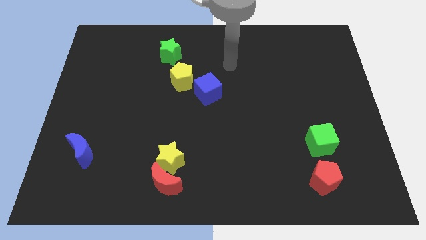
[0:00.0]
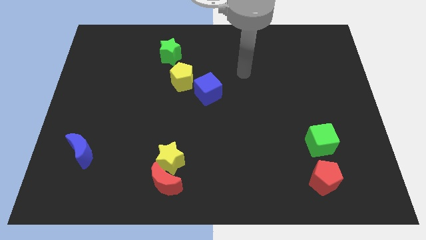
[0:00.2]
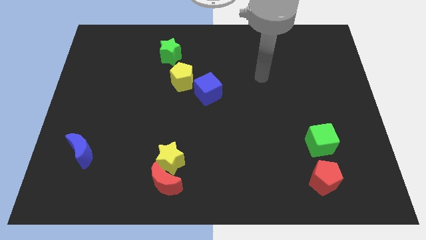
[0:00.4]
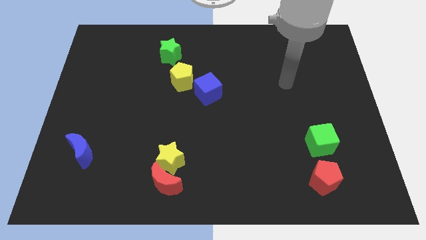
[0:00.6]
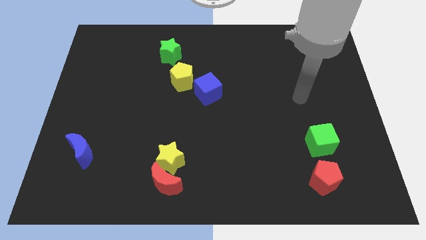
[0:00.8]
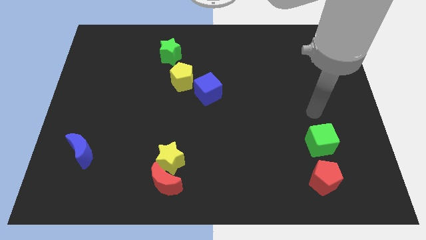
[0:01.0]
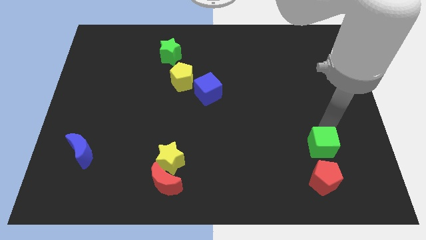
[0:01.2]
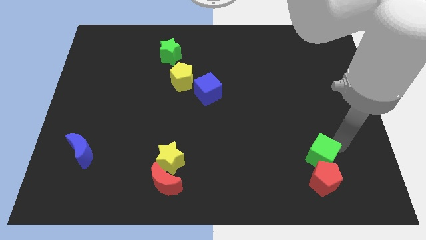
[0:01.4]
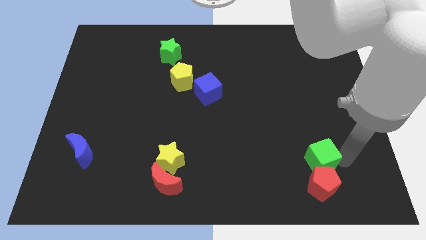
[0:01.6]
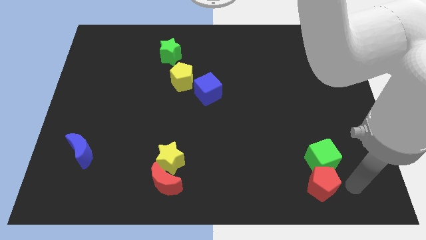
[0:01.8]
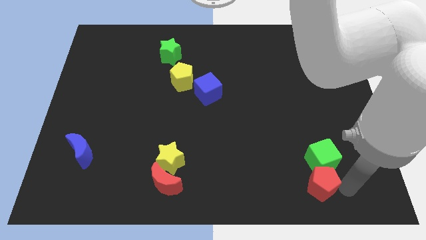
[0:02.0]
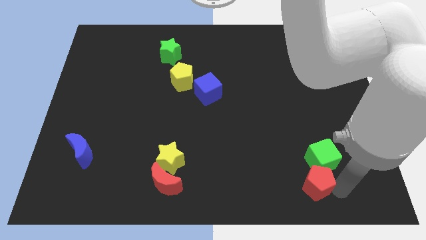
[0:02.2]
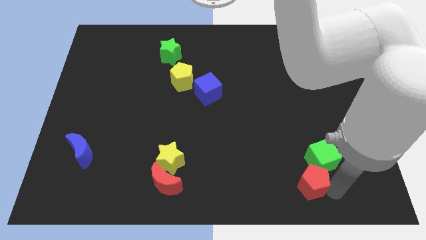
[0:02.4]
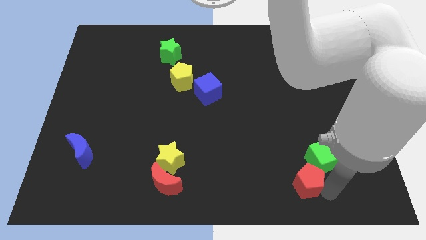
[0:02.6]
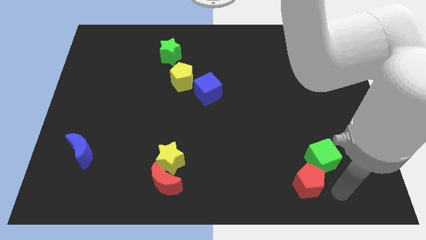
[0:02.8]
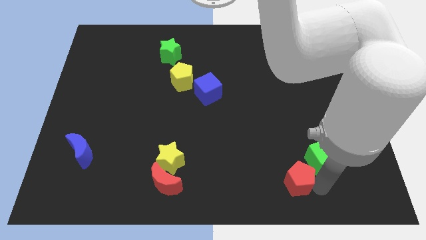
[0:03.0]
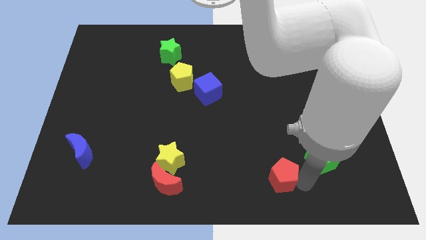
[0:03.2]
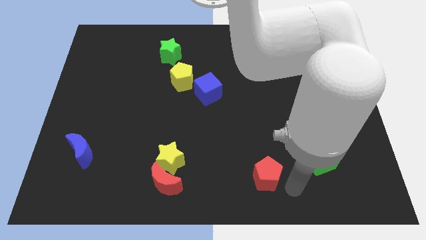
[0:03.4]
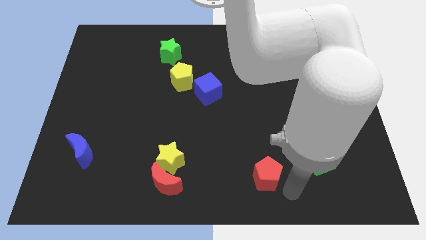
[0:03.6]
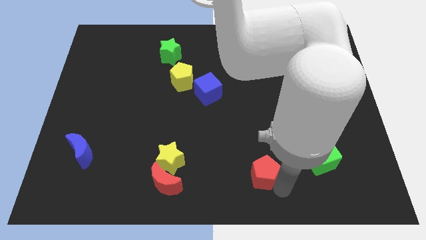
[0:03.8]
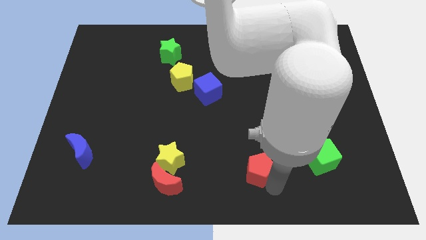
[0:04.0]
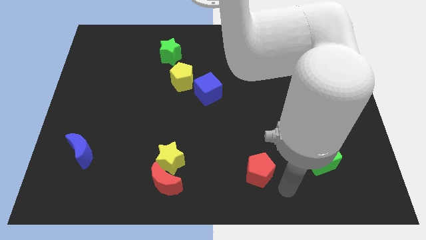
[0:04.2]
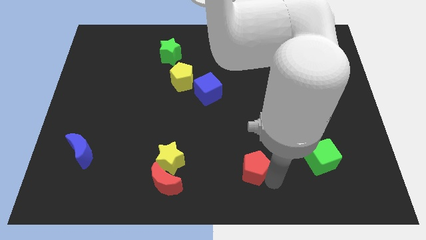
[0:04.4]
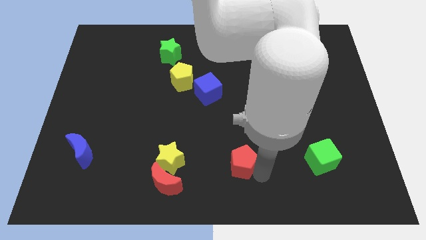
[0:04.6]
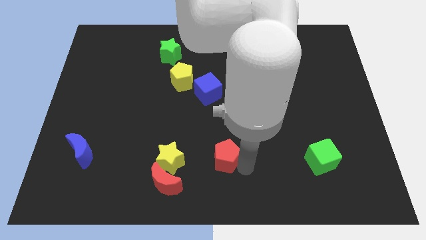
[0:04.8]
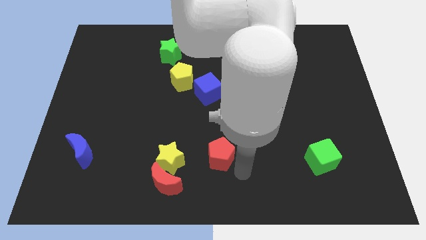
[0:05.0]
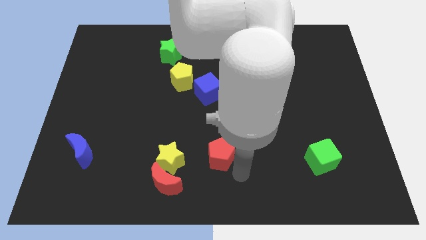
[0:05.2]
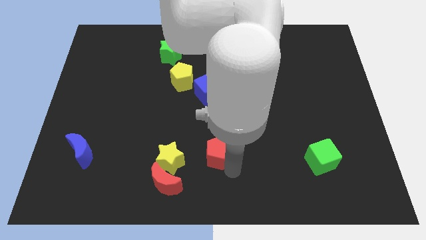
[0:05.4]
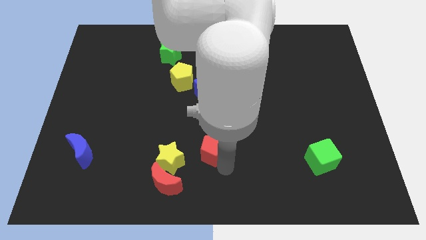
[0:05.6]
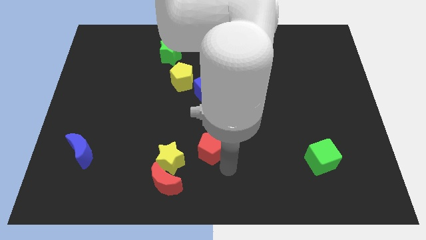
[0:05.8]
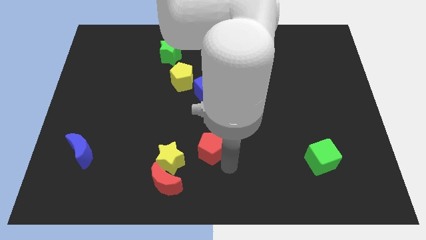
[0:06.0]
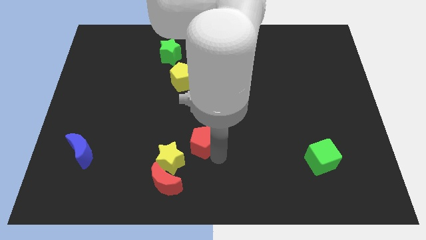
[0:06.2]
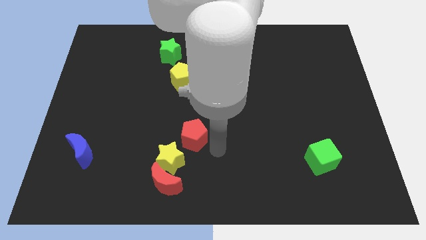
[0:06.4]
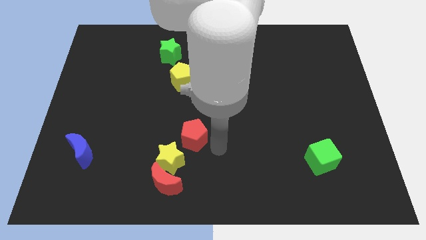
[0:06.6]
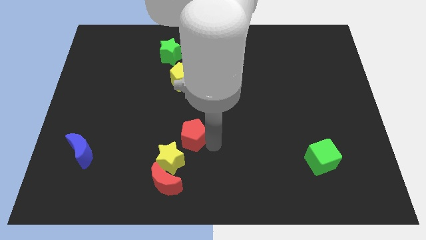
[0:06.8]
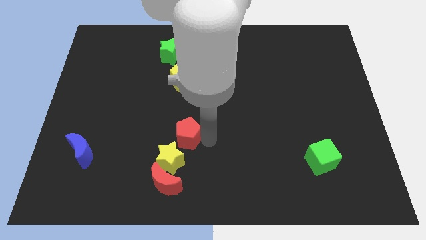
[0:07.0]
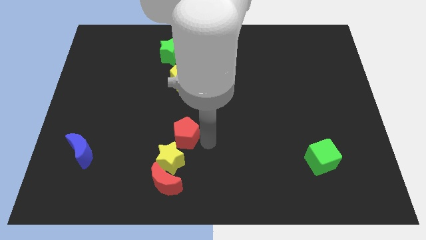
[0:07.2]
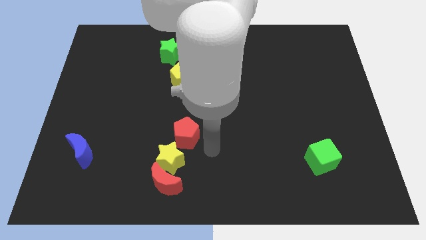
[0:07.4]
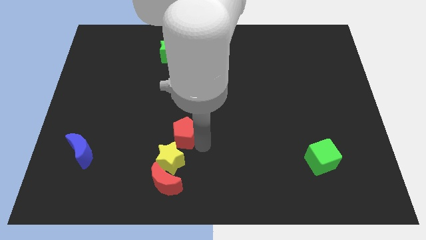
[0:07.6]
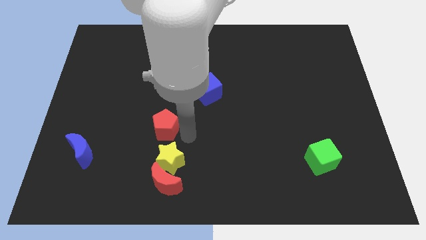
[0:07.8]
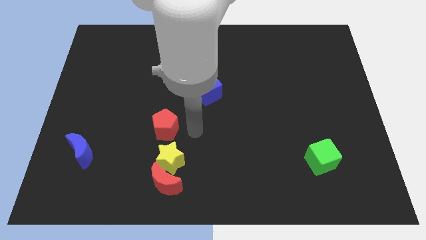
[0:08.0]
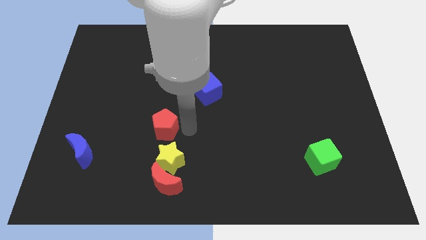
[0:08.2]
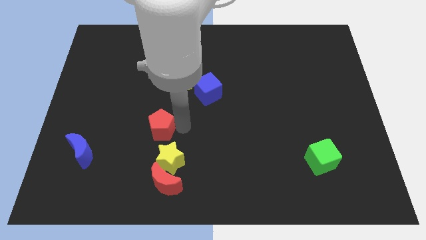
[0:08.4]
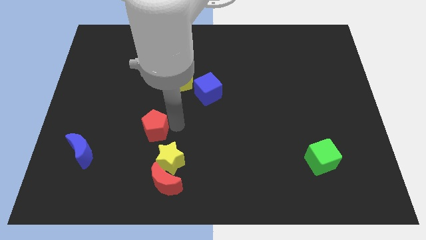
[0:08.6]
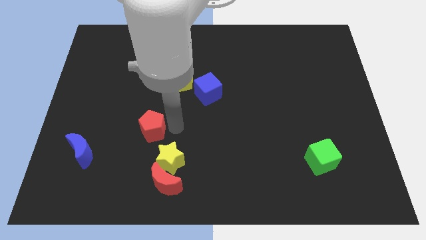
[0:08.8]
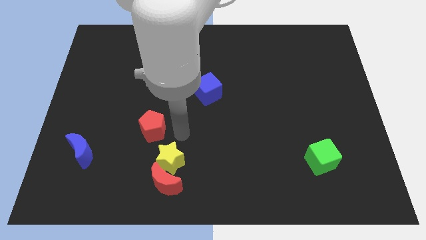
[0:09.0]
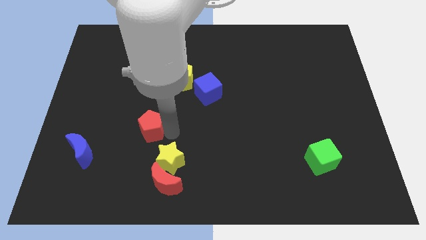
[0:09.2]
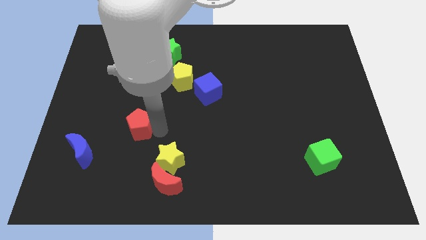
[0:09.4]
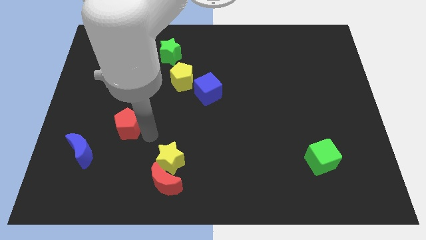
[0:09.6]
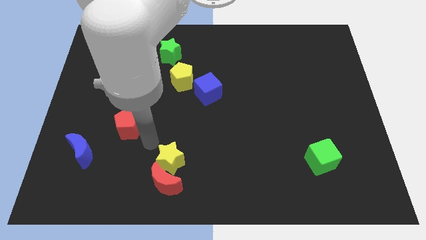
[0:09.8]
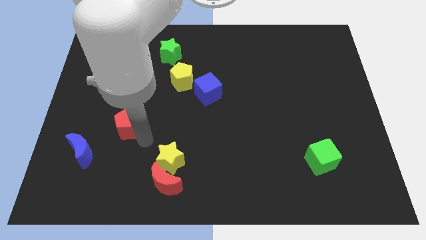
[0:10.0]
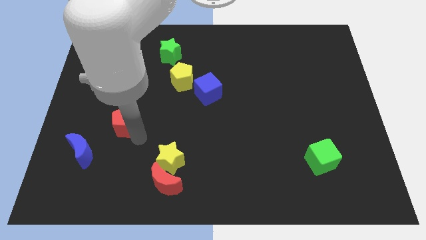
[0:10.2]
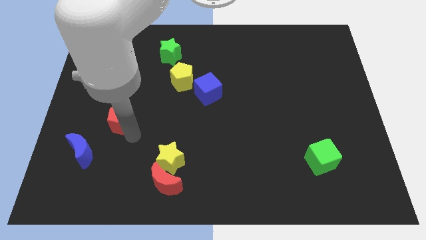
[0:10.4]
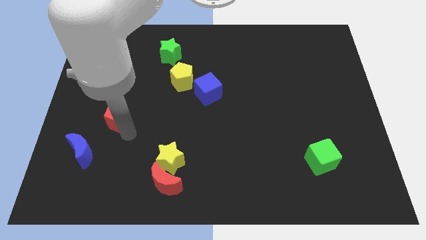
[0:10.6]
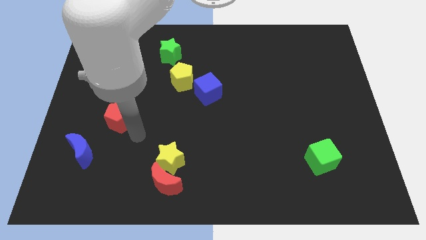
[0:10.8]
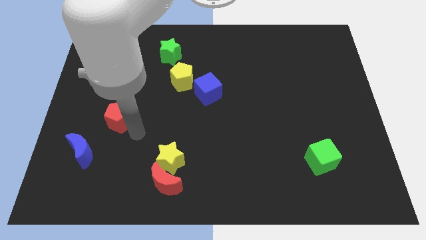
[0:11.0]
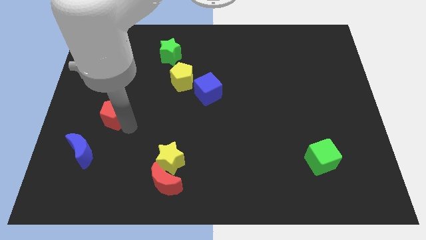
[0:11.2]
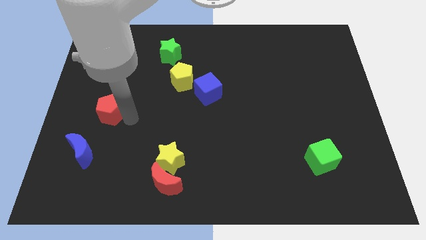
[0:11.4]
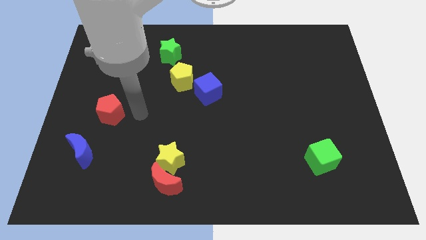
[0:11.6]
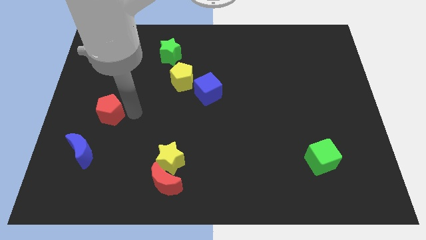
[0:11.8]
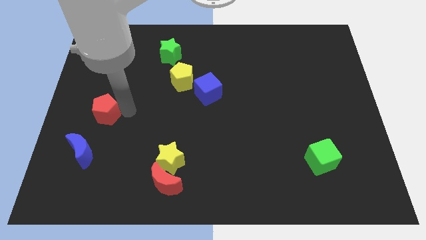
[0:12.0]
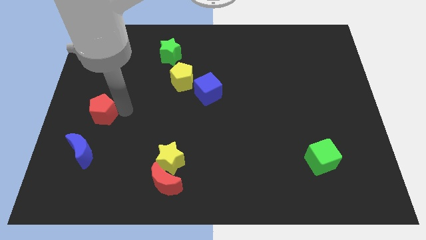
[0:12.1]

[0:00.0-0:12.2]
move the red pentagon to the left side

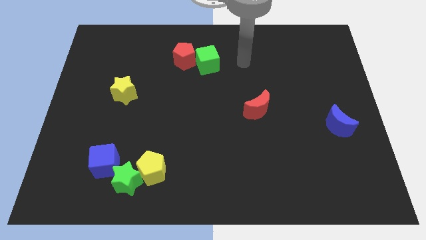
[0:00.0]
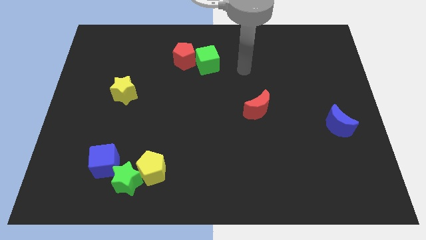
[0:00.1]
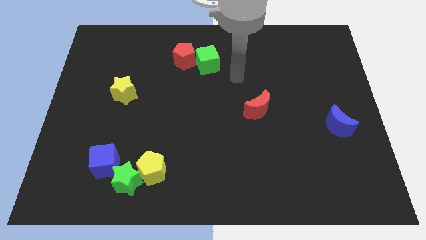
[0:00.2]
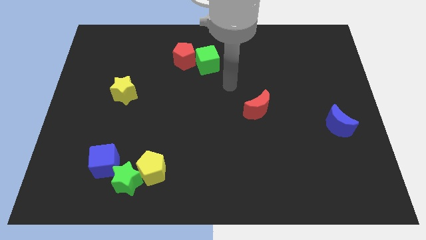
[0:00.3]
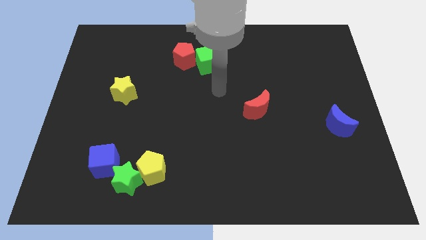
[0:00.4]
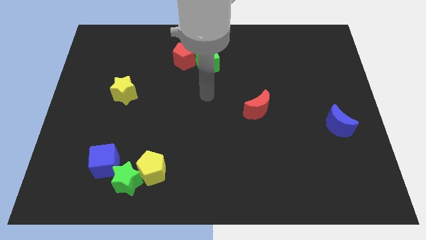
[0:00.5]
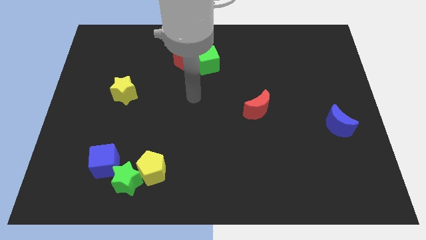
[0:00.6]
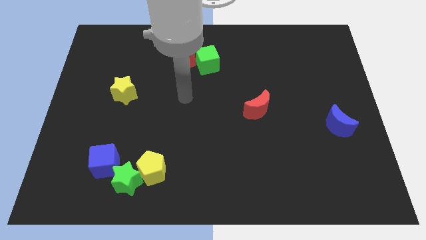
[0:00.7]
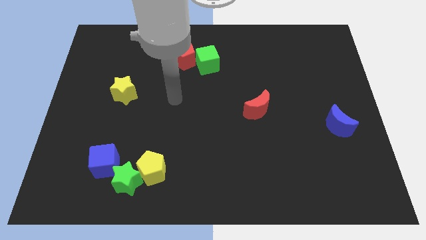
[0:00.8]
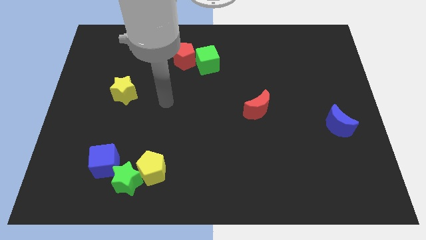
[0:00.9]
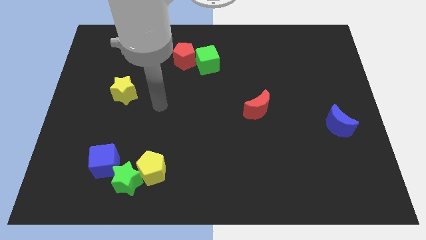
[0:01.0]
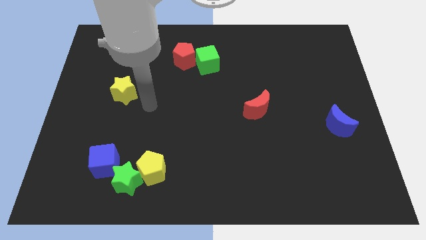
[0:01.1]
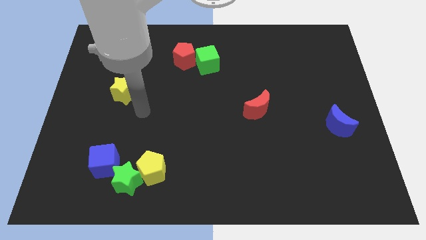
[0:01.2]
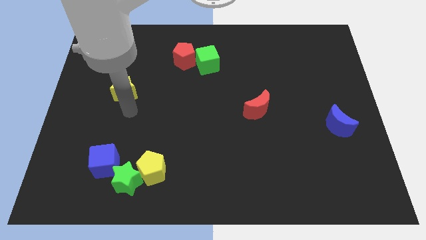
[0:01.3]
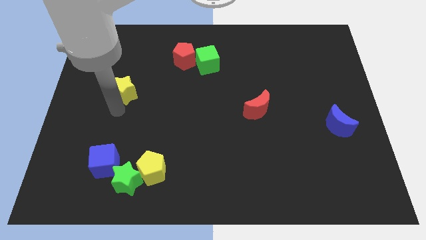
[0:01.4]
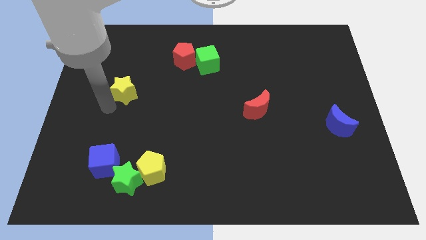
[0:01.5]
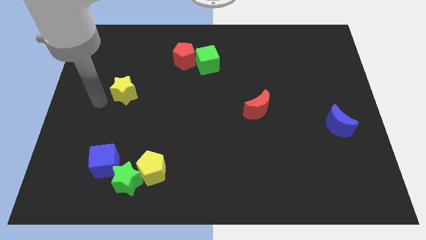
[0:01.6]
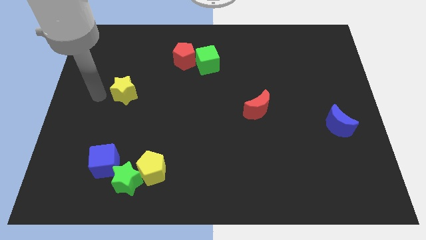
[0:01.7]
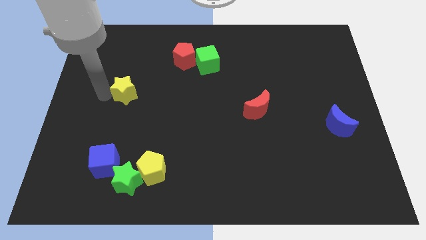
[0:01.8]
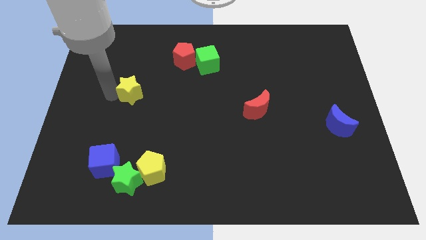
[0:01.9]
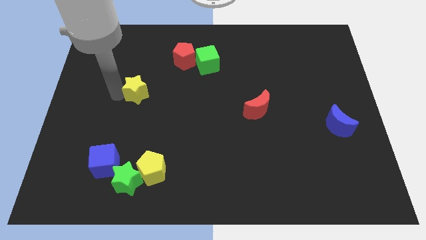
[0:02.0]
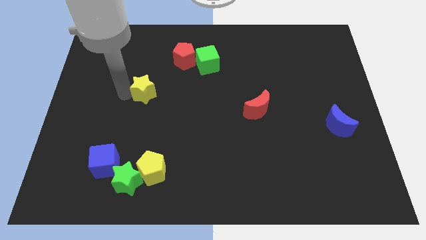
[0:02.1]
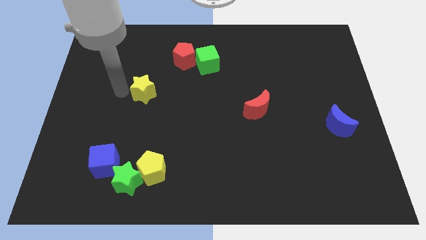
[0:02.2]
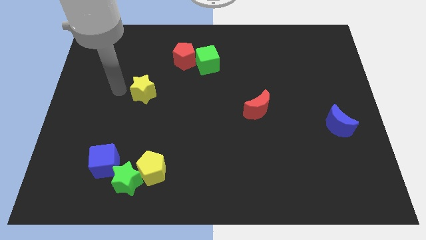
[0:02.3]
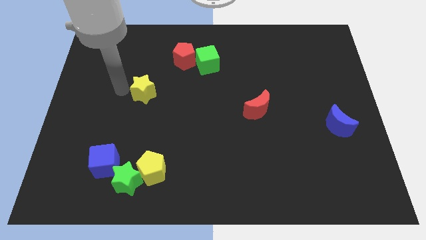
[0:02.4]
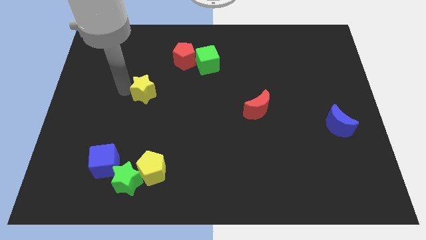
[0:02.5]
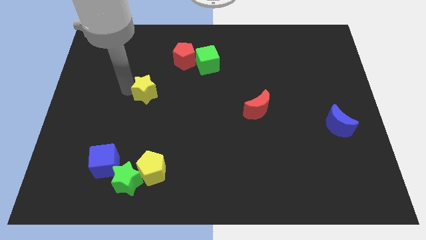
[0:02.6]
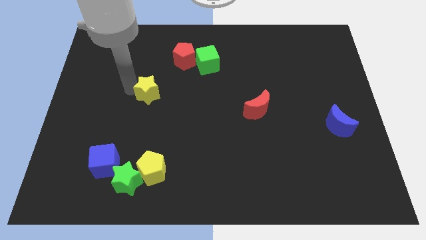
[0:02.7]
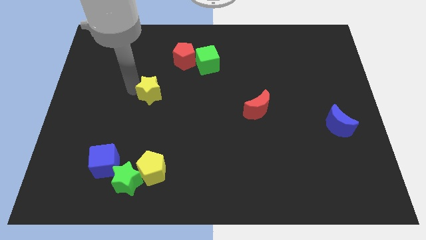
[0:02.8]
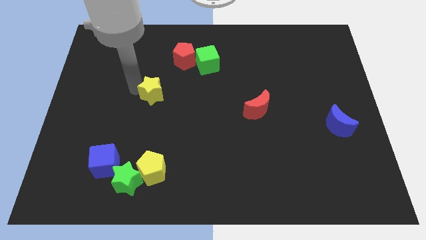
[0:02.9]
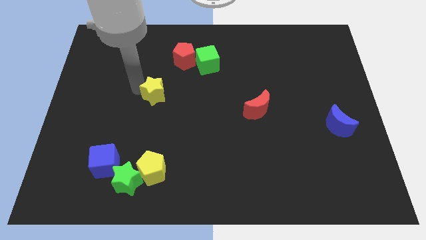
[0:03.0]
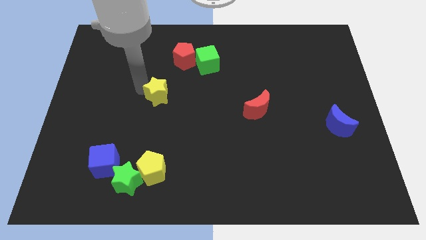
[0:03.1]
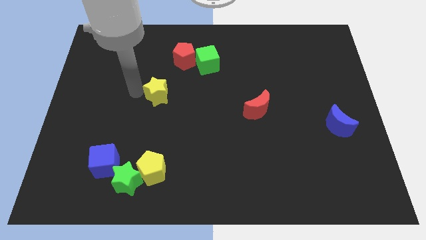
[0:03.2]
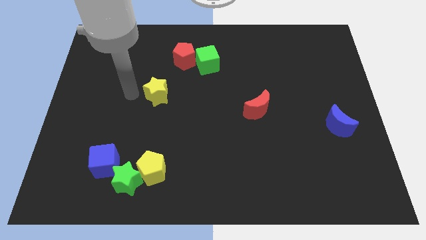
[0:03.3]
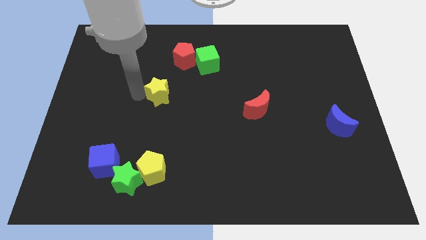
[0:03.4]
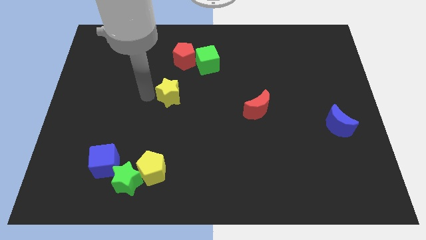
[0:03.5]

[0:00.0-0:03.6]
put the yellow star to the center of the board
